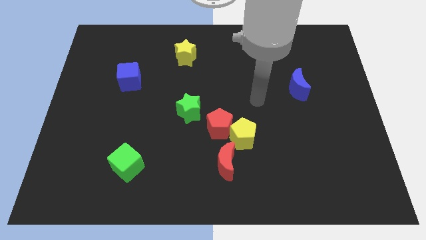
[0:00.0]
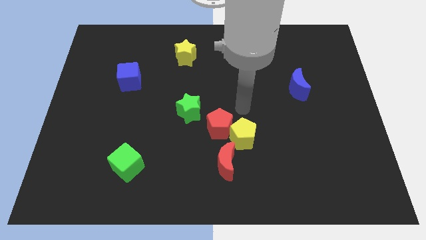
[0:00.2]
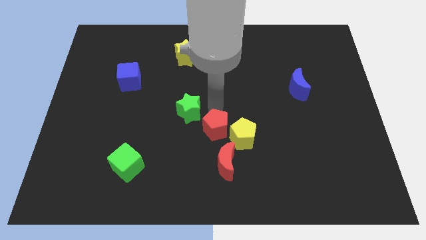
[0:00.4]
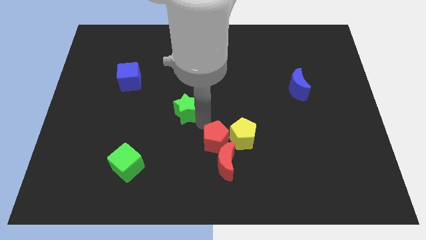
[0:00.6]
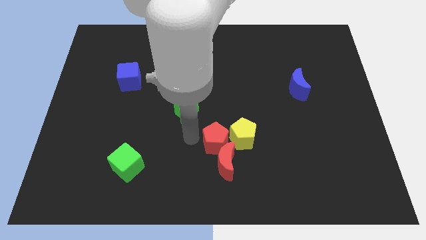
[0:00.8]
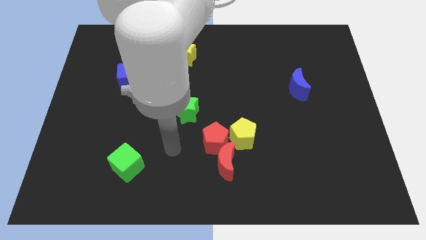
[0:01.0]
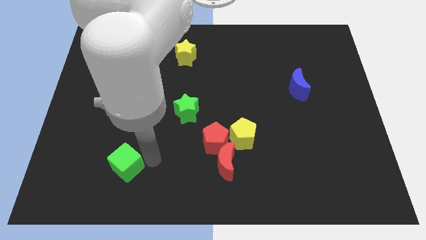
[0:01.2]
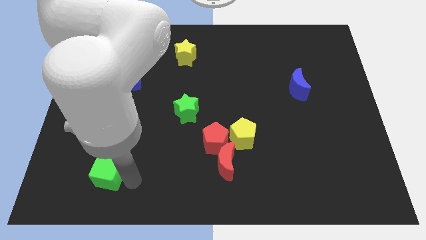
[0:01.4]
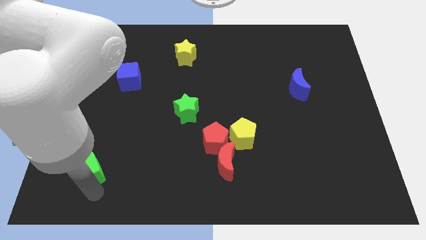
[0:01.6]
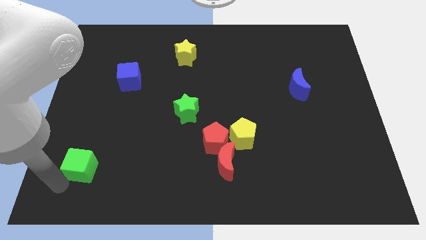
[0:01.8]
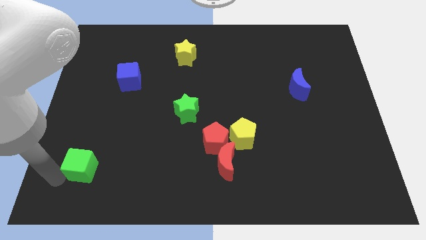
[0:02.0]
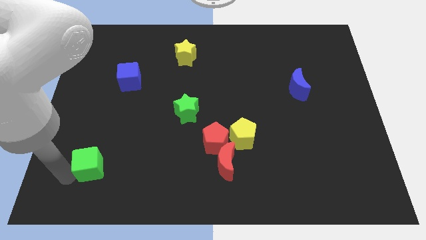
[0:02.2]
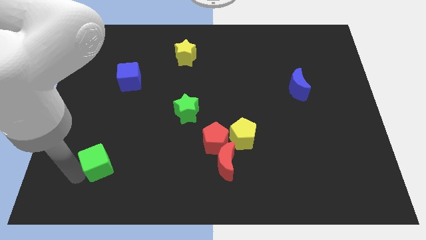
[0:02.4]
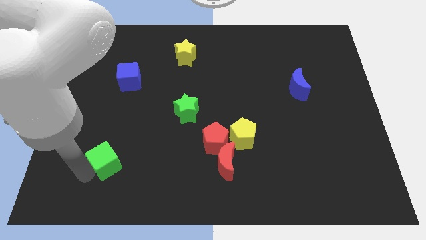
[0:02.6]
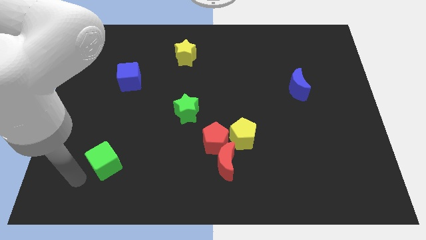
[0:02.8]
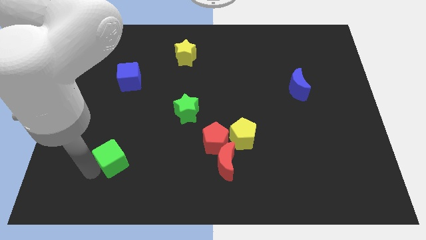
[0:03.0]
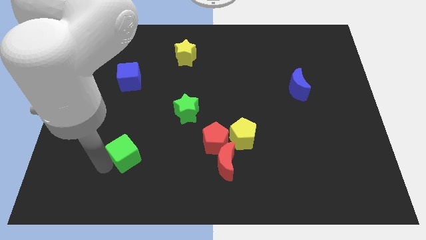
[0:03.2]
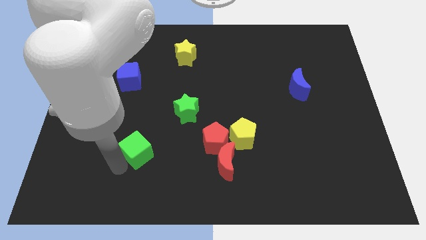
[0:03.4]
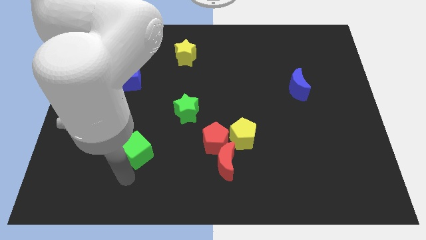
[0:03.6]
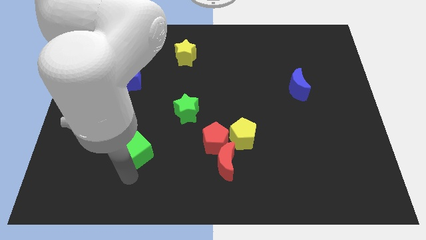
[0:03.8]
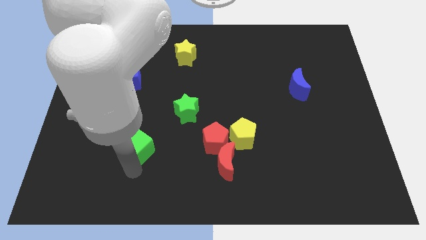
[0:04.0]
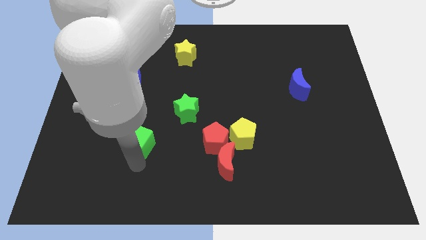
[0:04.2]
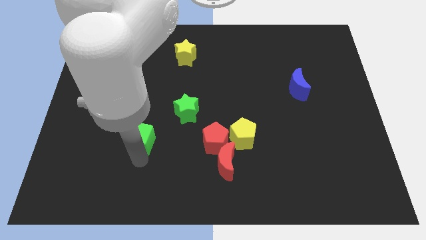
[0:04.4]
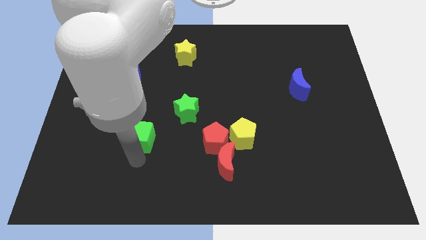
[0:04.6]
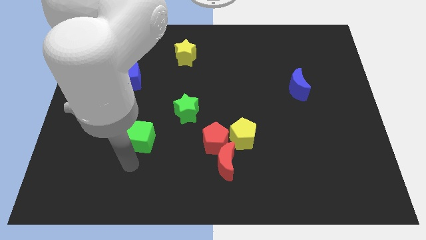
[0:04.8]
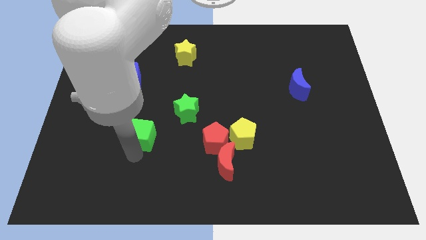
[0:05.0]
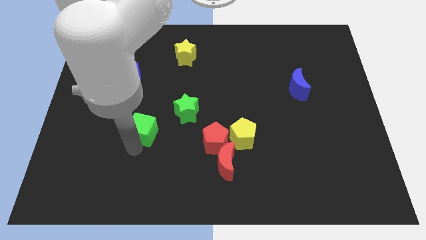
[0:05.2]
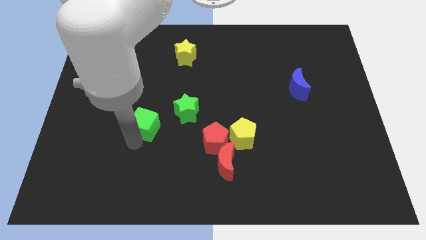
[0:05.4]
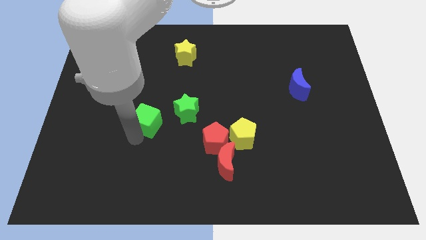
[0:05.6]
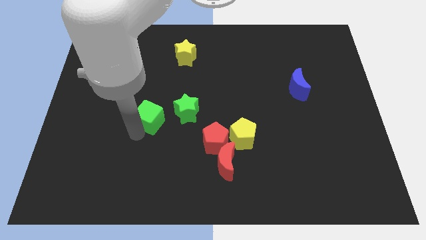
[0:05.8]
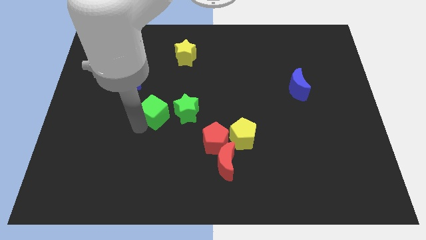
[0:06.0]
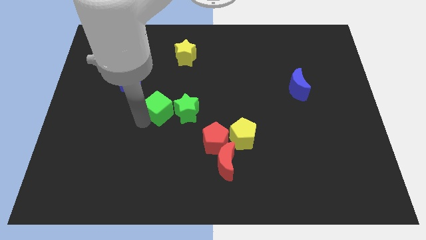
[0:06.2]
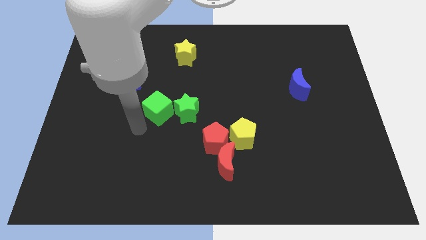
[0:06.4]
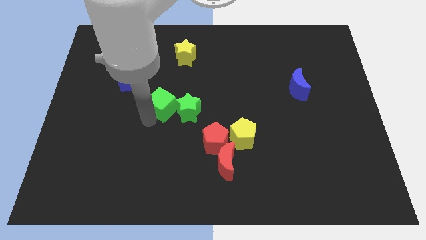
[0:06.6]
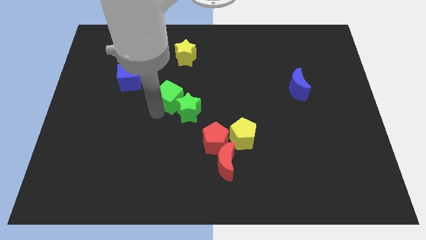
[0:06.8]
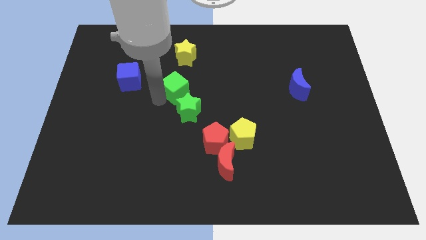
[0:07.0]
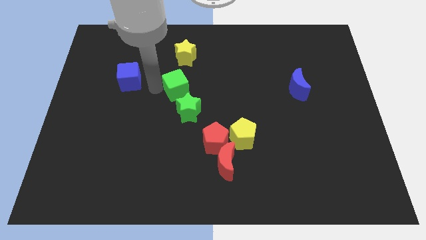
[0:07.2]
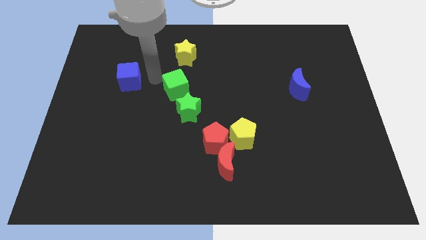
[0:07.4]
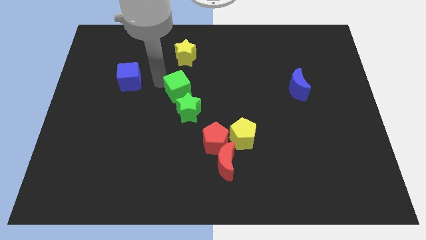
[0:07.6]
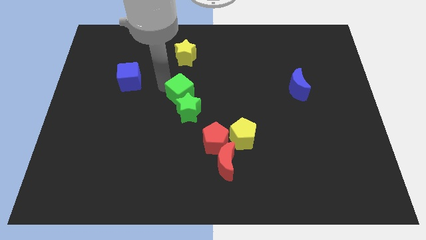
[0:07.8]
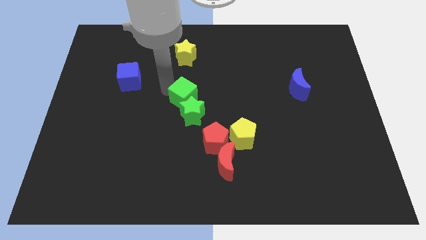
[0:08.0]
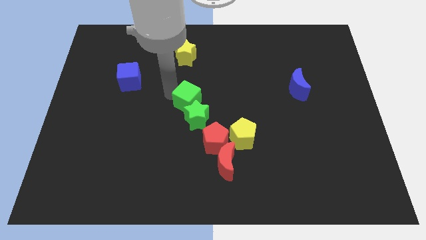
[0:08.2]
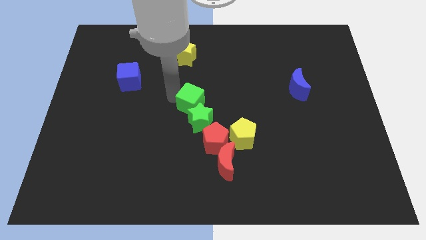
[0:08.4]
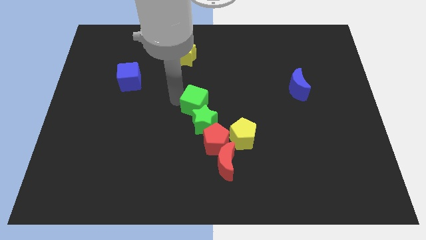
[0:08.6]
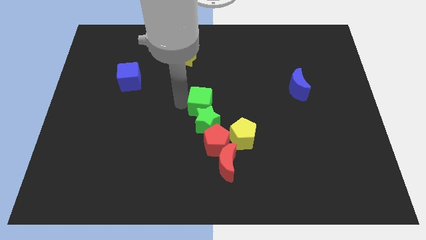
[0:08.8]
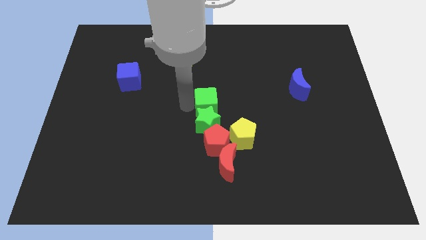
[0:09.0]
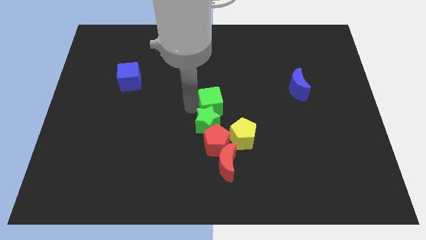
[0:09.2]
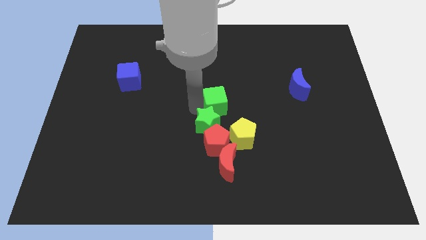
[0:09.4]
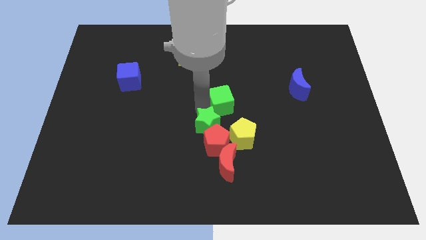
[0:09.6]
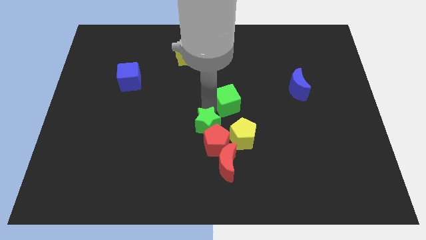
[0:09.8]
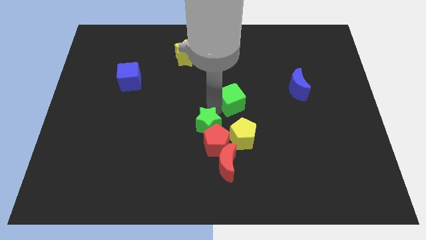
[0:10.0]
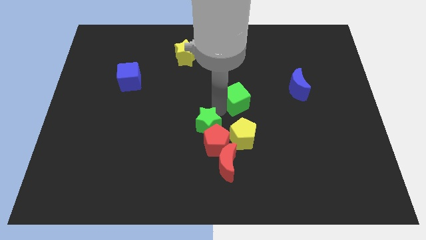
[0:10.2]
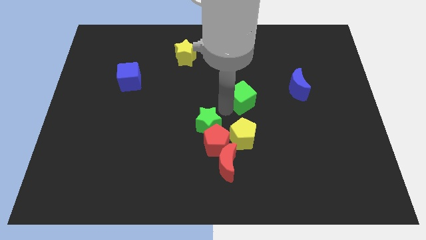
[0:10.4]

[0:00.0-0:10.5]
slide the green cube just left of the blue moon

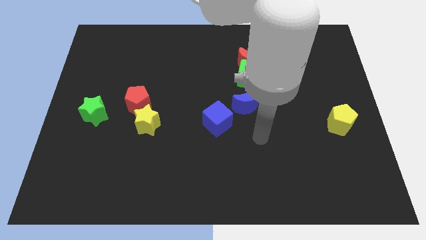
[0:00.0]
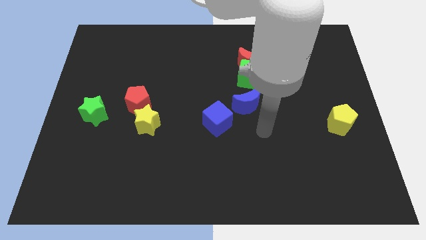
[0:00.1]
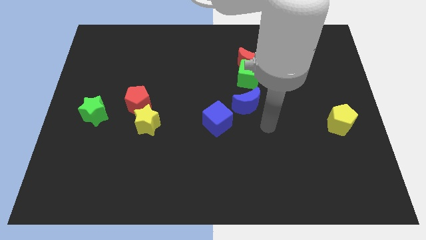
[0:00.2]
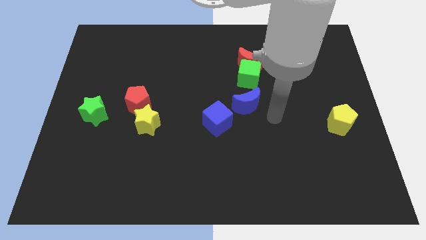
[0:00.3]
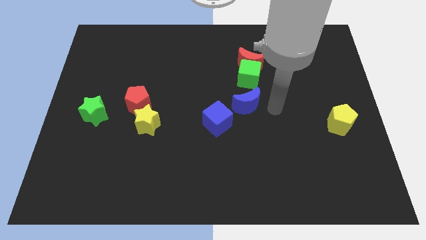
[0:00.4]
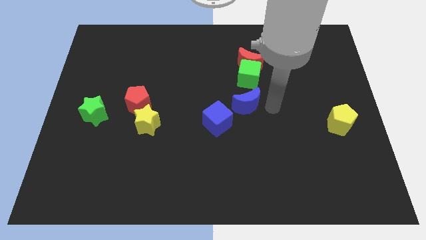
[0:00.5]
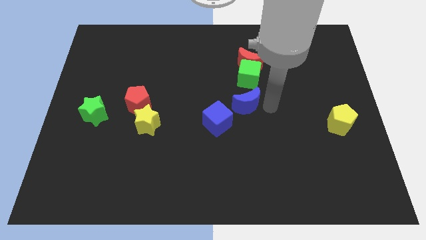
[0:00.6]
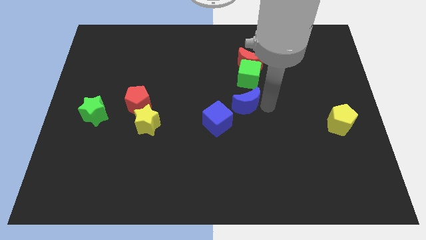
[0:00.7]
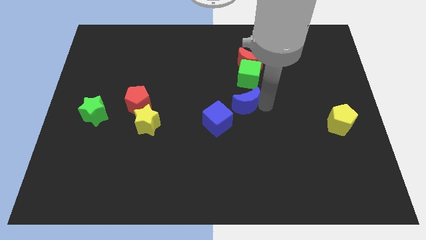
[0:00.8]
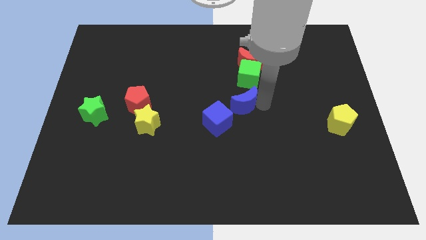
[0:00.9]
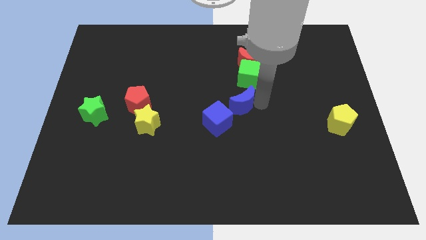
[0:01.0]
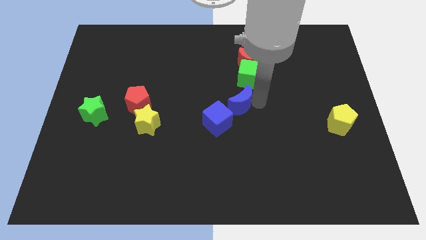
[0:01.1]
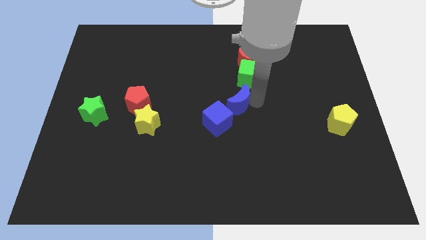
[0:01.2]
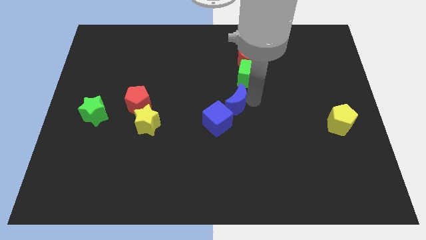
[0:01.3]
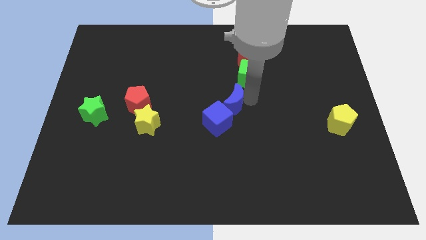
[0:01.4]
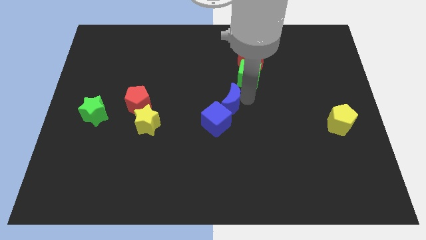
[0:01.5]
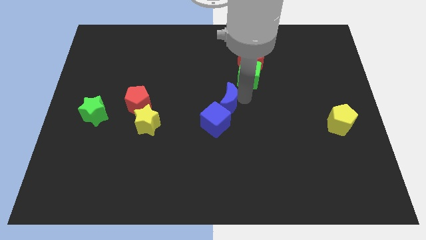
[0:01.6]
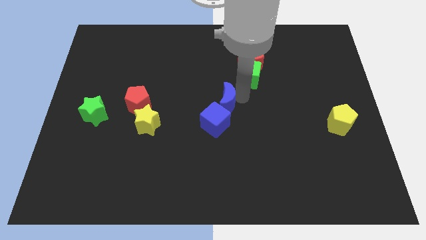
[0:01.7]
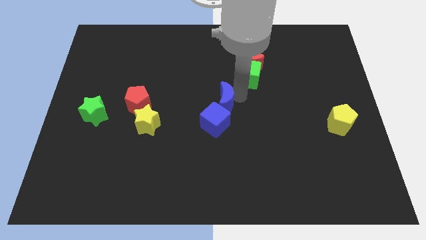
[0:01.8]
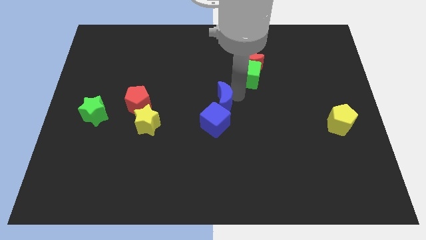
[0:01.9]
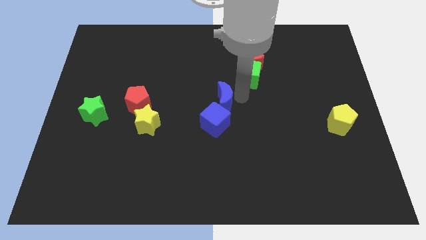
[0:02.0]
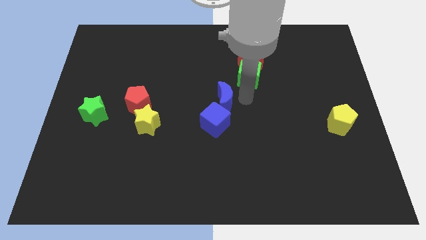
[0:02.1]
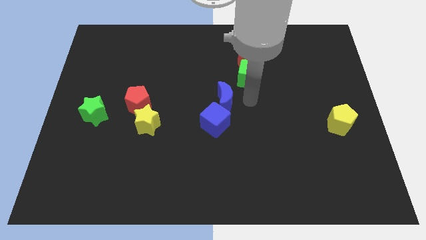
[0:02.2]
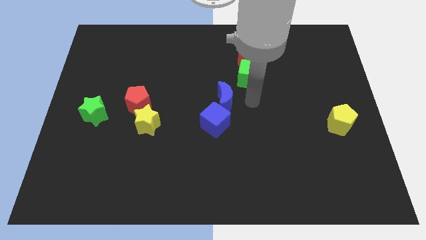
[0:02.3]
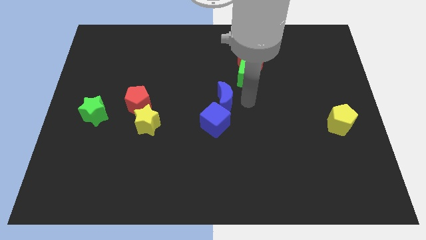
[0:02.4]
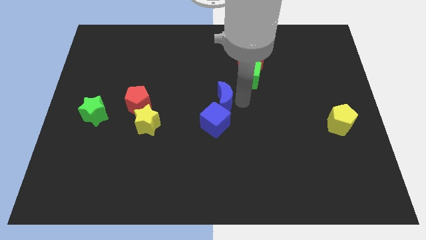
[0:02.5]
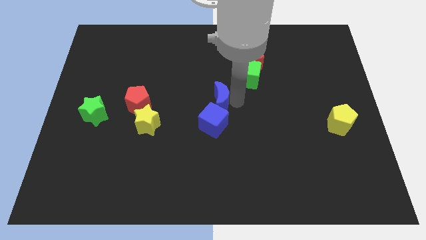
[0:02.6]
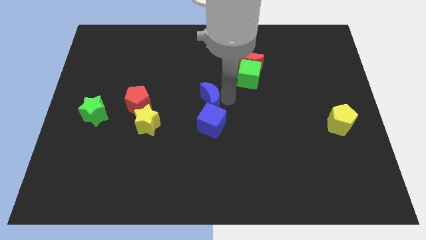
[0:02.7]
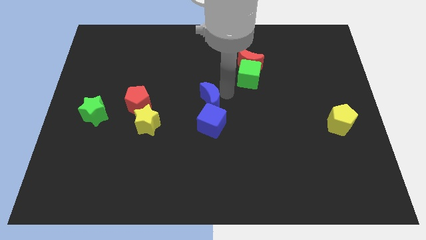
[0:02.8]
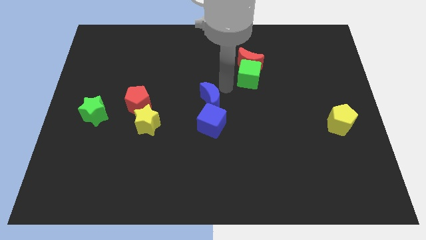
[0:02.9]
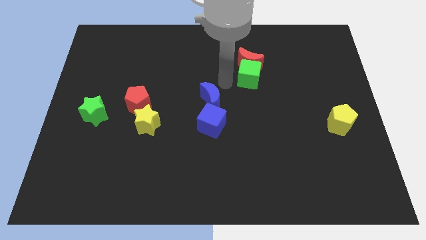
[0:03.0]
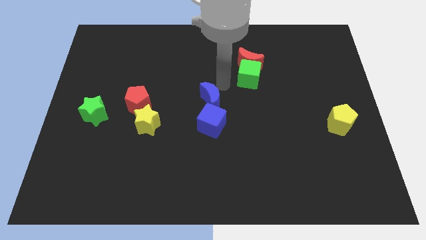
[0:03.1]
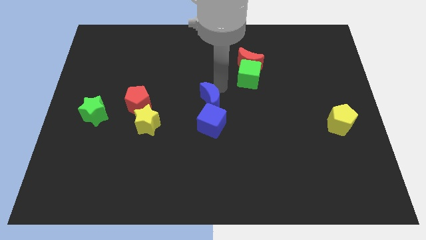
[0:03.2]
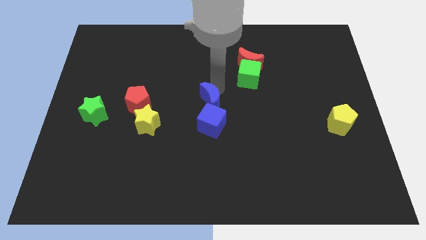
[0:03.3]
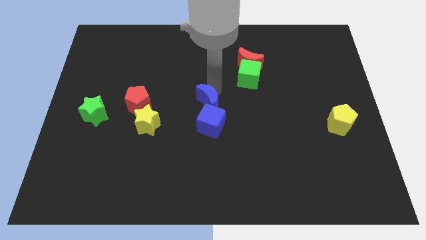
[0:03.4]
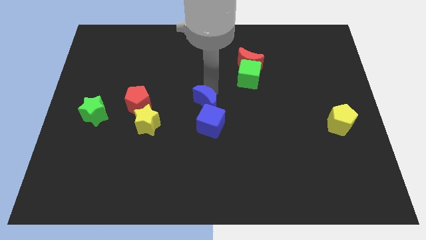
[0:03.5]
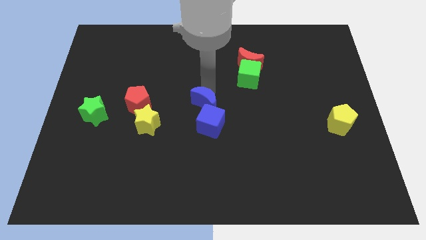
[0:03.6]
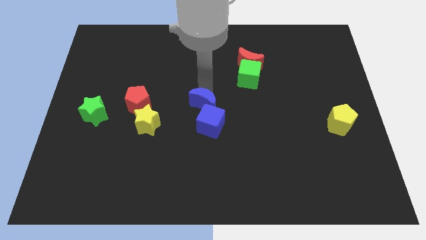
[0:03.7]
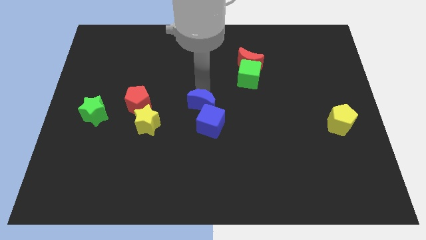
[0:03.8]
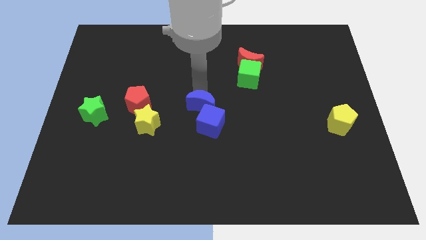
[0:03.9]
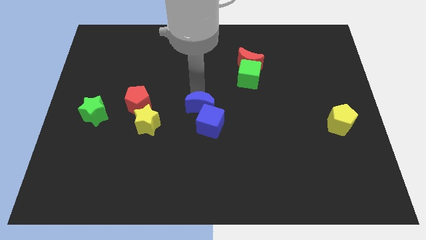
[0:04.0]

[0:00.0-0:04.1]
push the blue moon to the right of the yellow star
